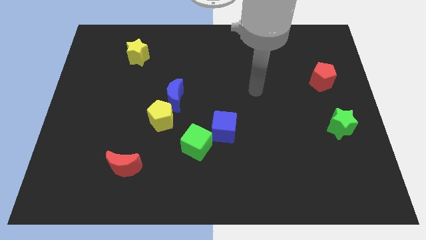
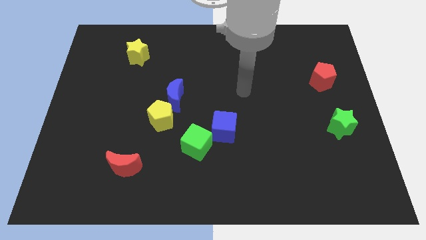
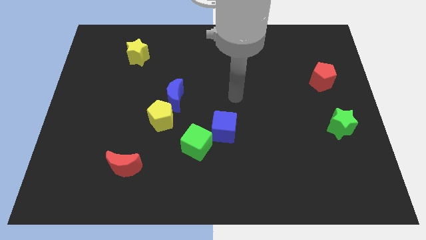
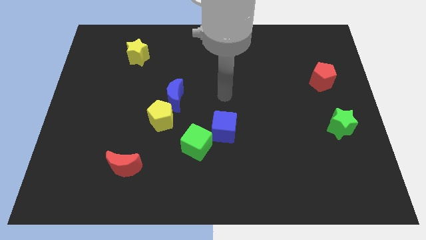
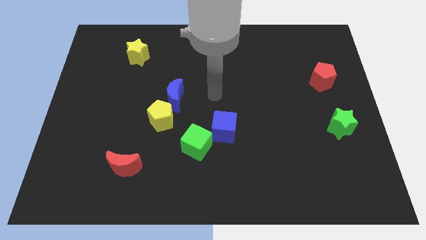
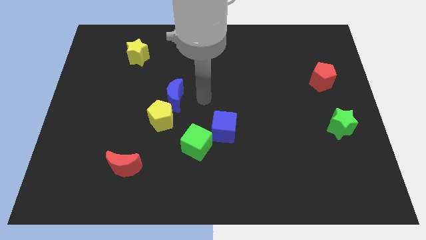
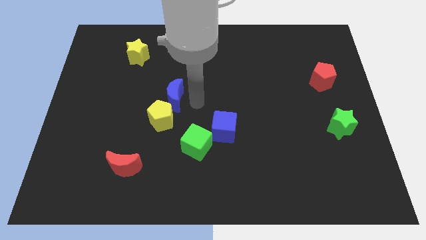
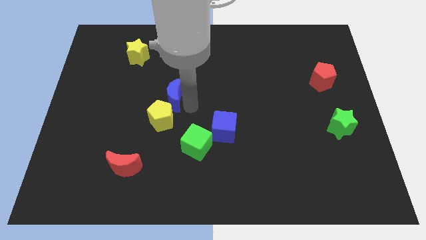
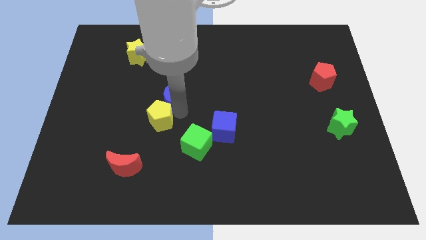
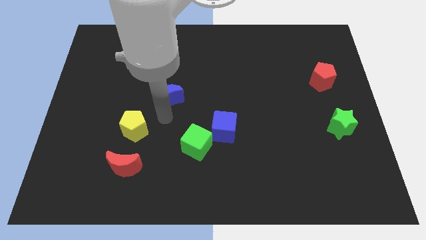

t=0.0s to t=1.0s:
pull the blue moon apart from the yellow pentagon

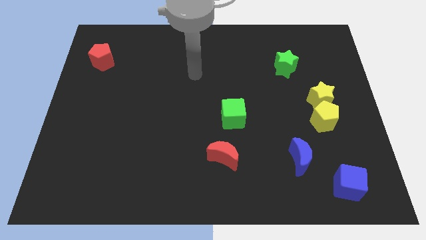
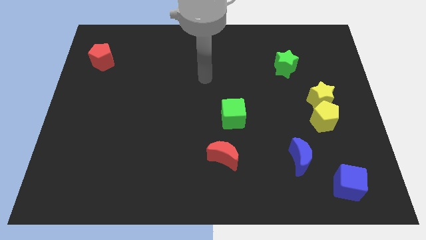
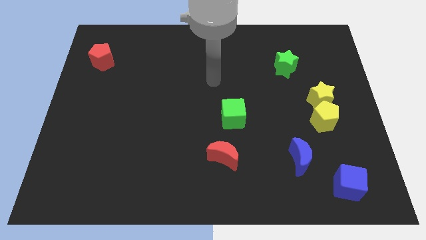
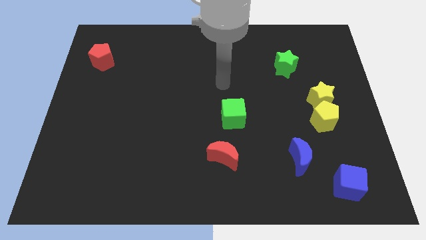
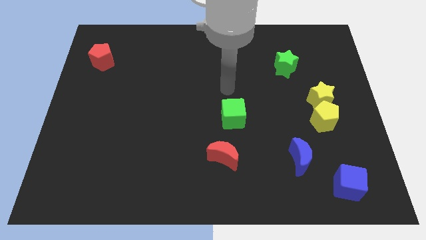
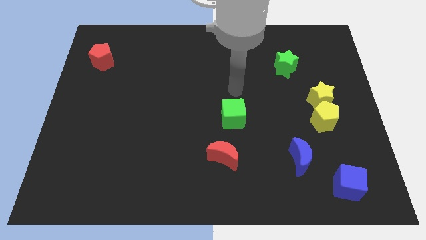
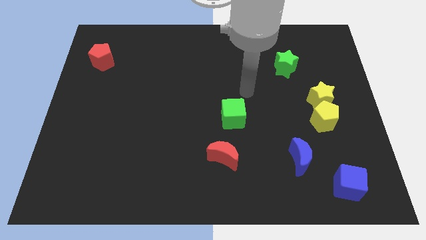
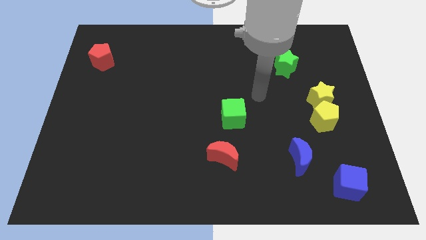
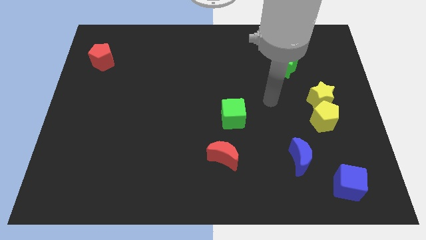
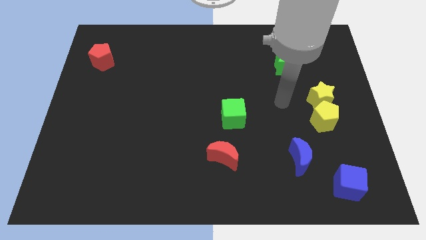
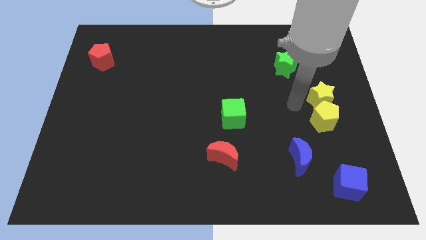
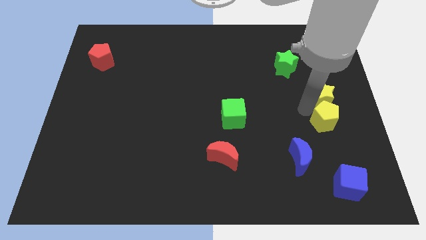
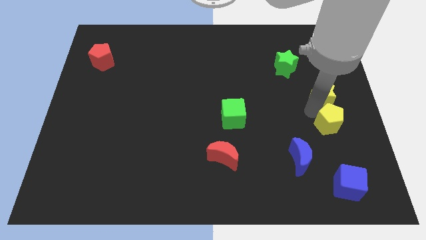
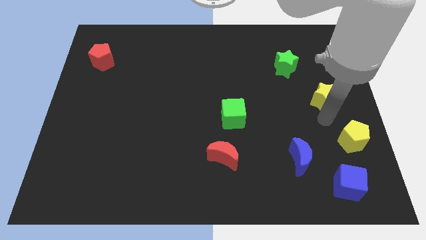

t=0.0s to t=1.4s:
pull the yellow star apart from the yellow pentagon

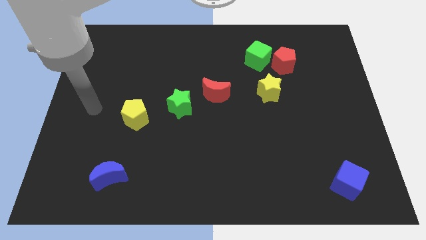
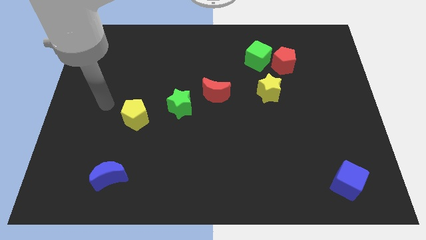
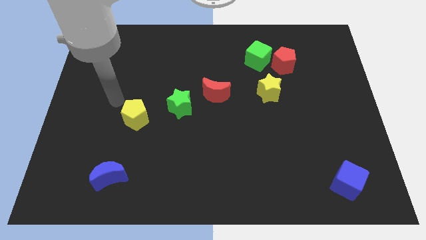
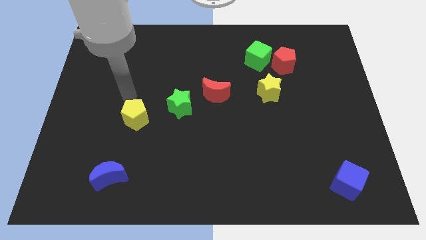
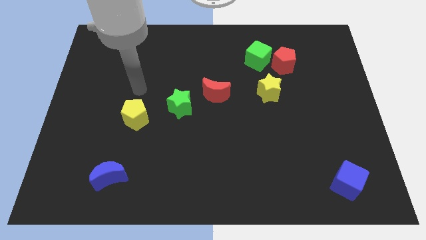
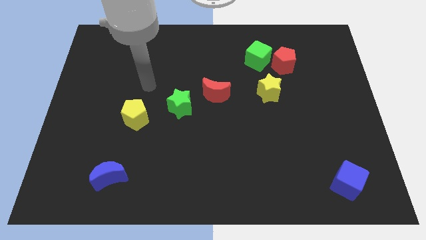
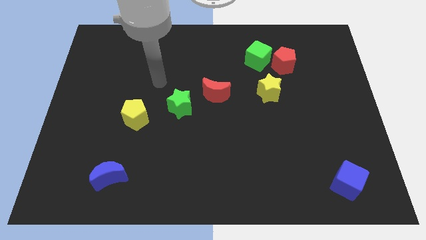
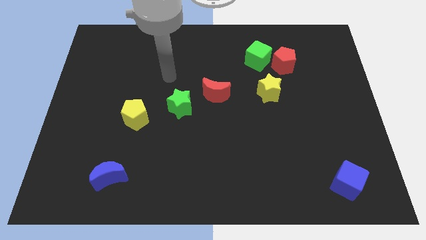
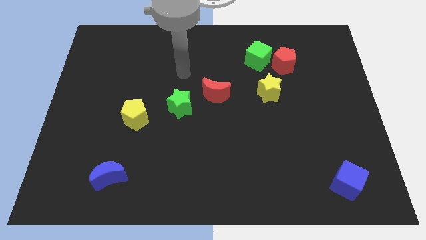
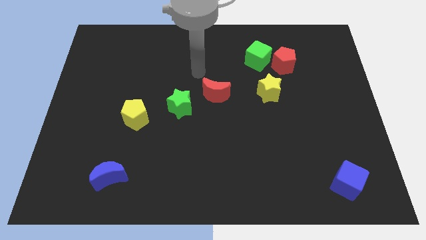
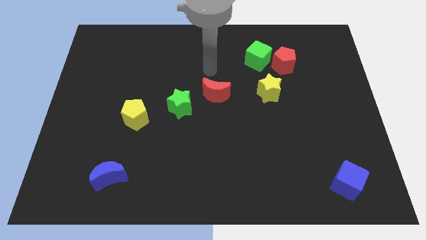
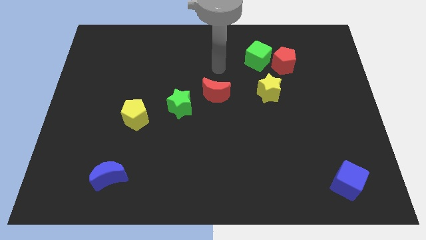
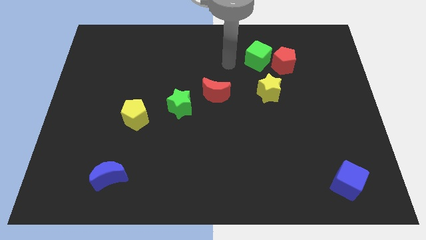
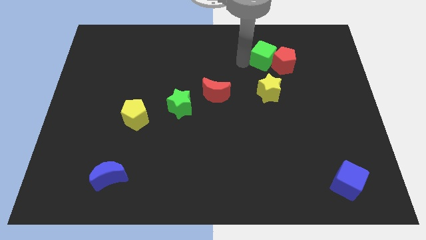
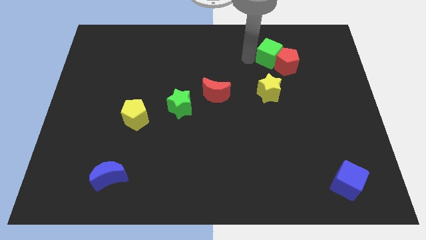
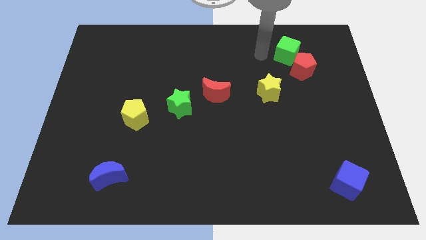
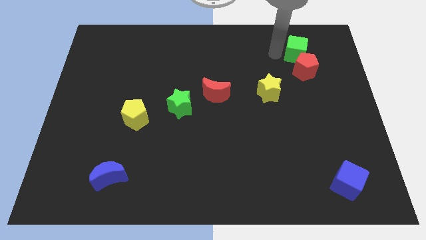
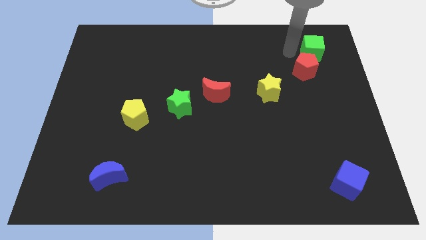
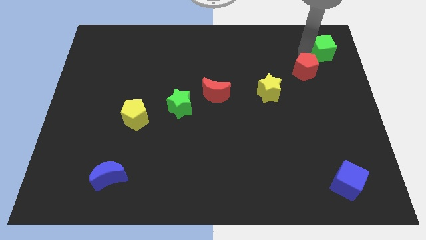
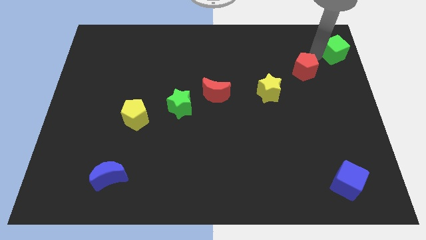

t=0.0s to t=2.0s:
pull the red pentagon apart from the green cube

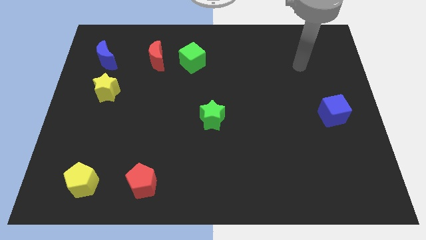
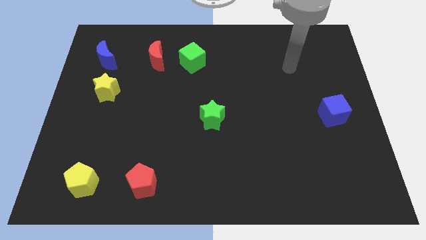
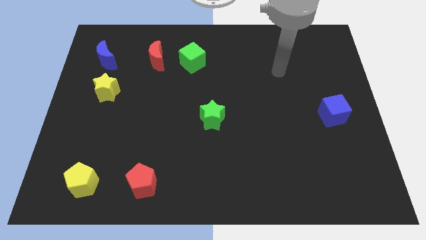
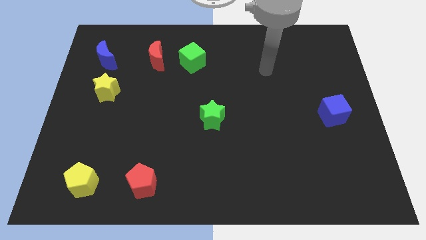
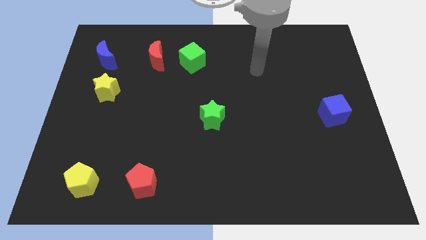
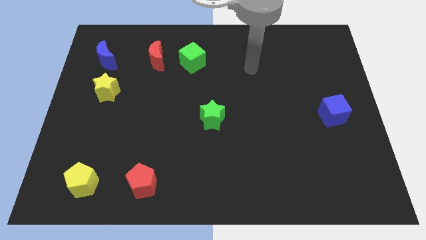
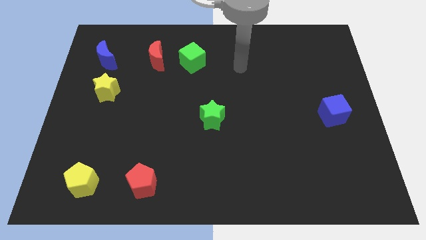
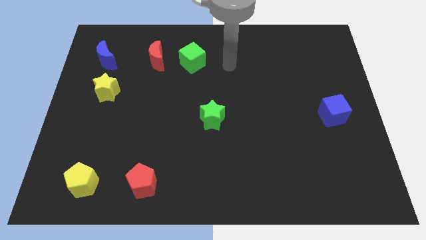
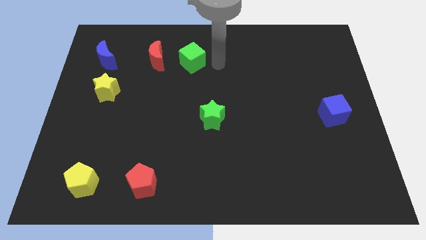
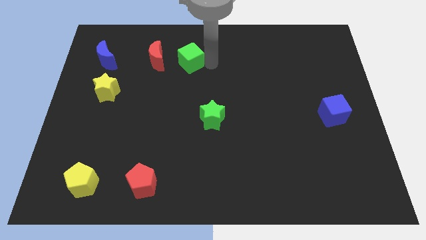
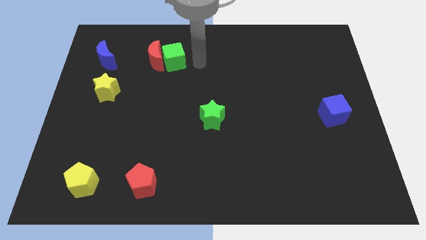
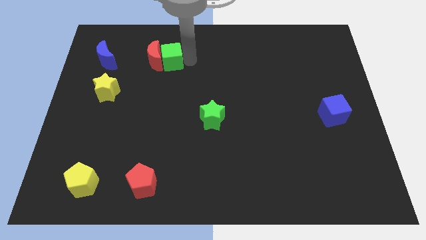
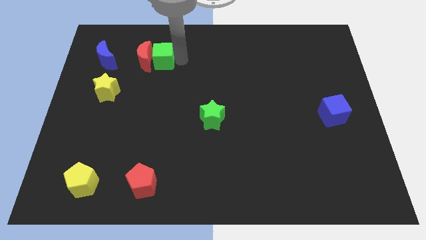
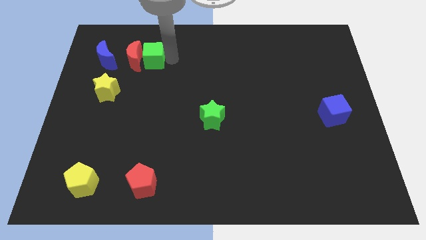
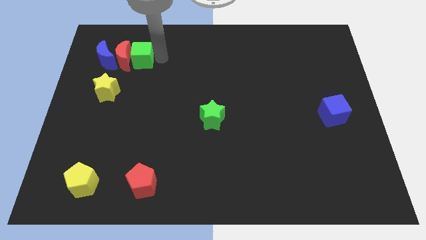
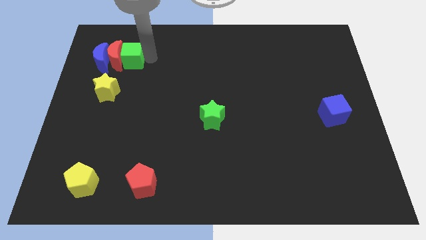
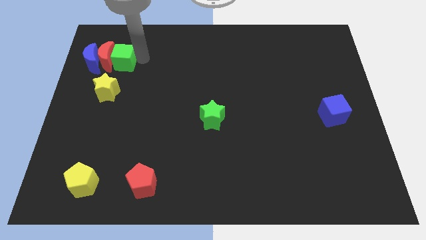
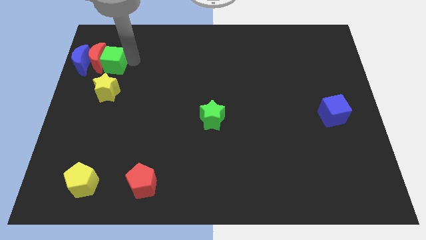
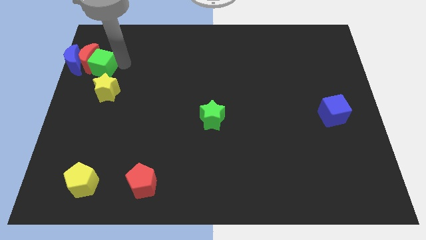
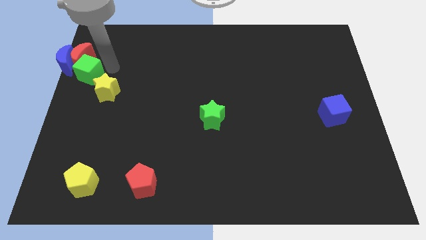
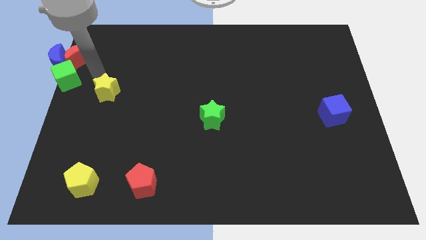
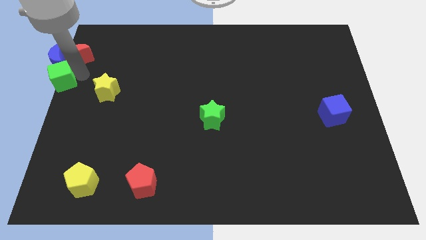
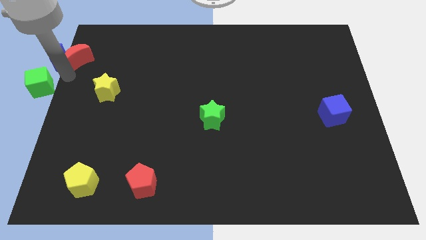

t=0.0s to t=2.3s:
separate the red moon from the green cube

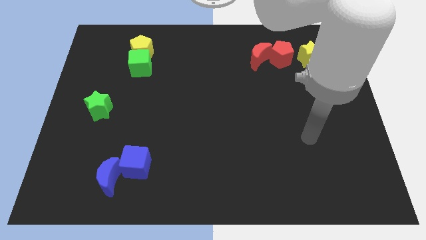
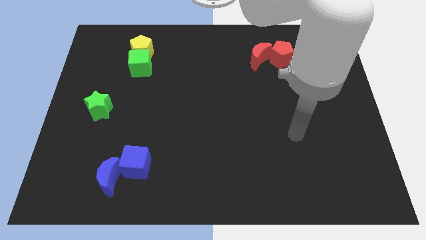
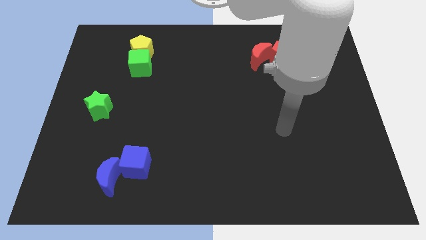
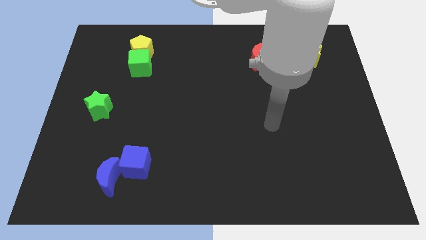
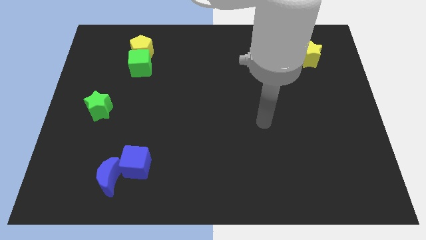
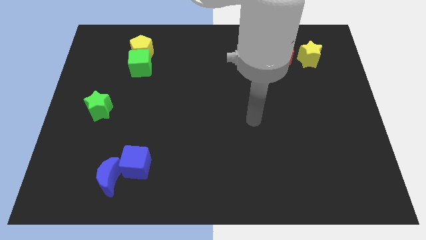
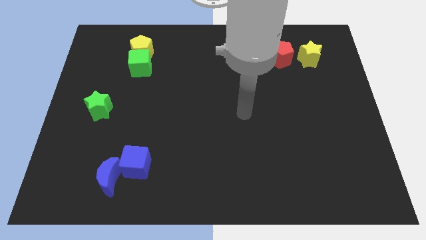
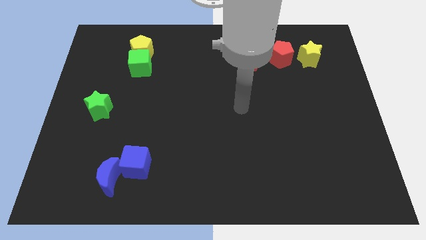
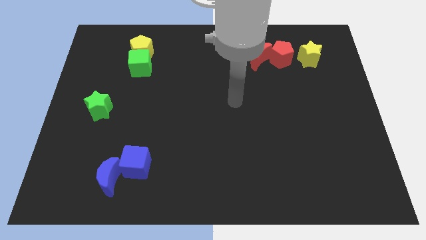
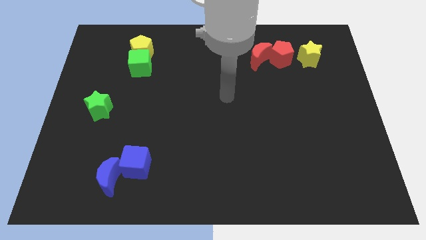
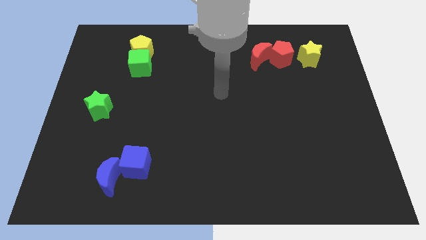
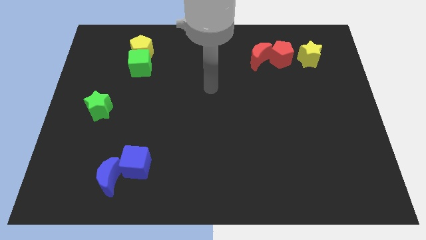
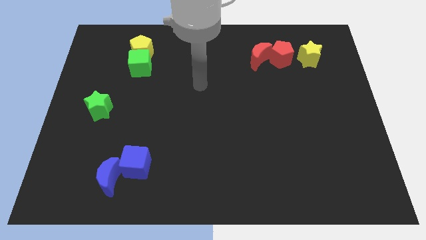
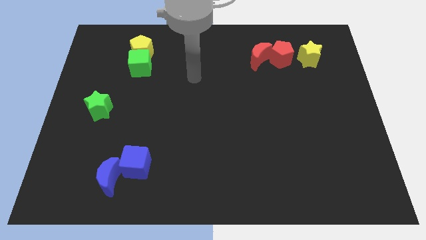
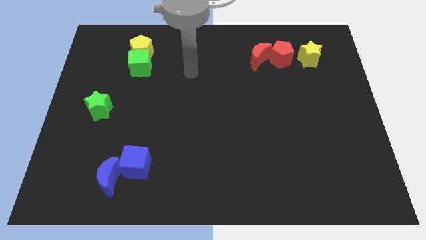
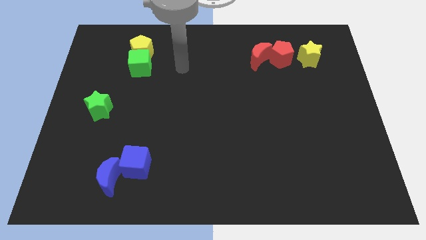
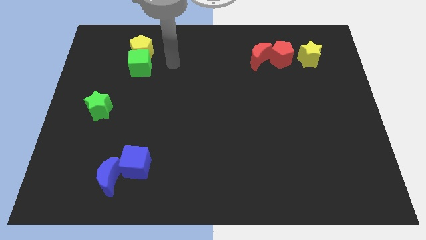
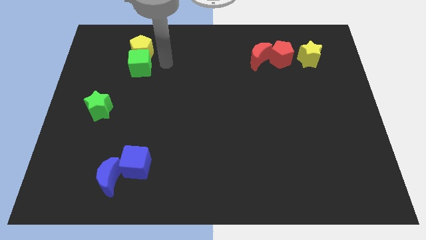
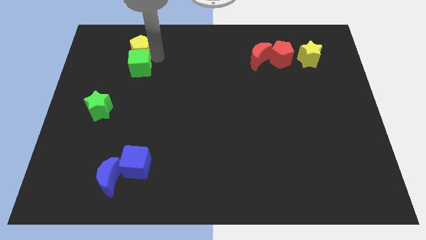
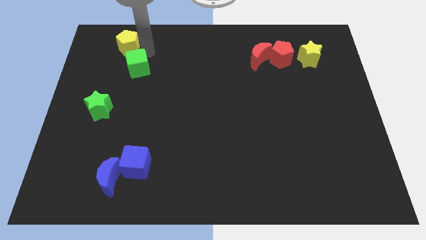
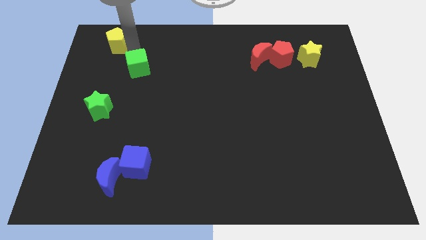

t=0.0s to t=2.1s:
pull the green cube apart from the yellow pentagon

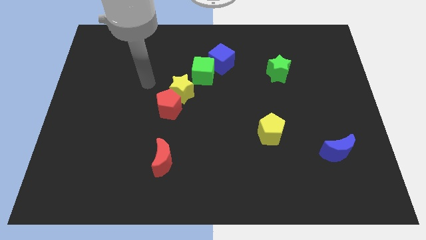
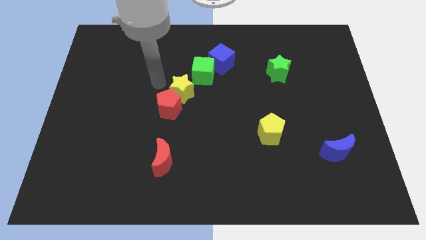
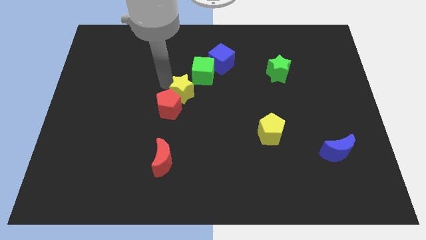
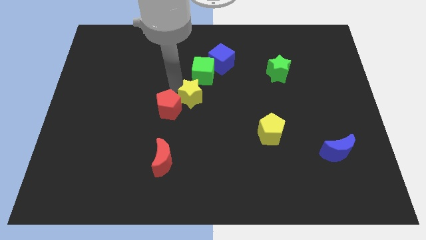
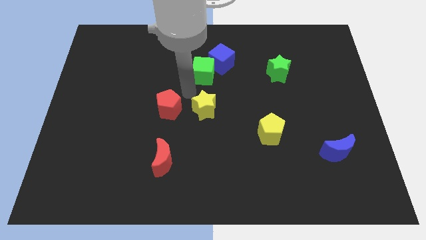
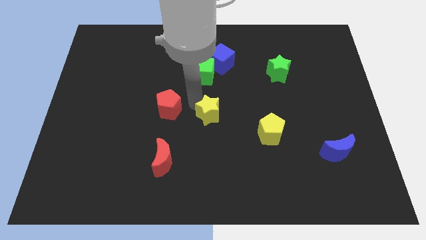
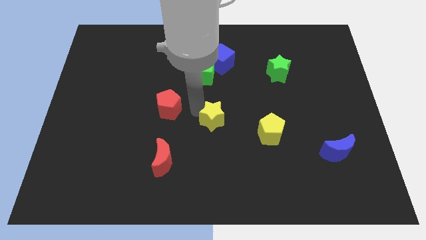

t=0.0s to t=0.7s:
pull the red pentagon apart from the yellow star
